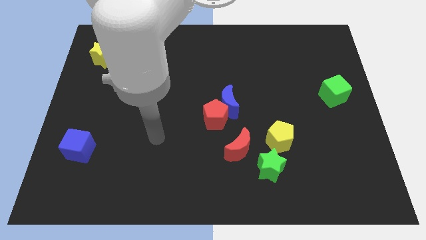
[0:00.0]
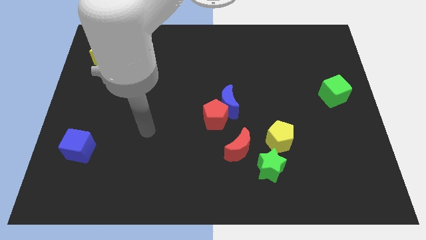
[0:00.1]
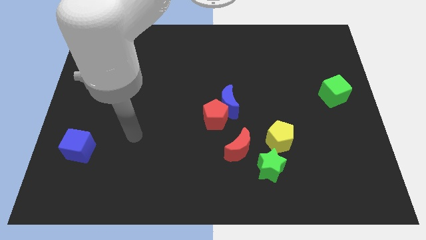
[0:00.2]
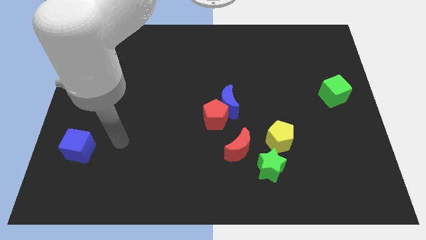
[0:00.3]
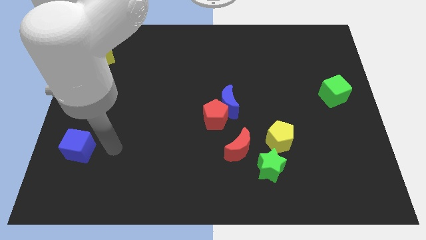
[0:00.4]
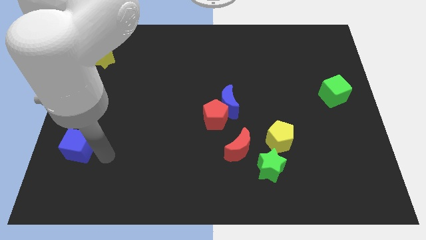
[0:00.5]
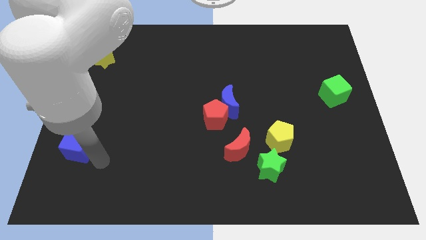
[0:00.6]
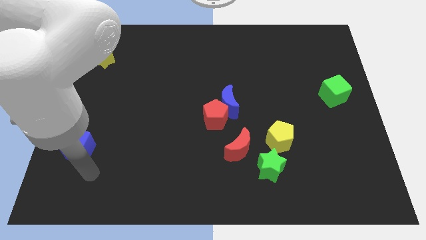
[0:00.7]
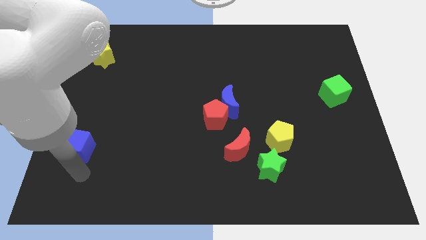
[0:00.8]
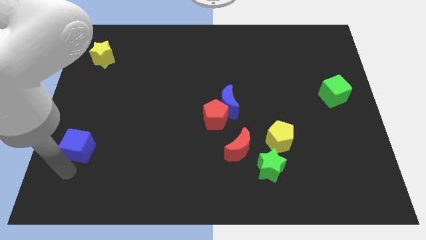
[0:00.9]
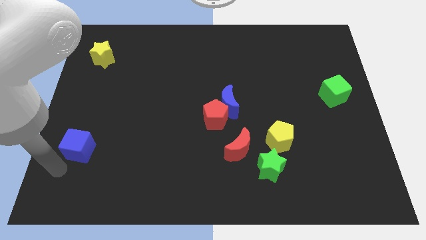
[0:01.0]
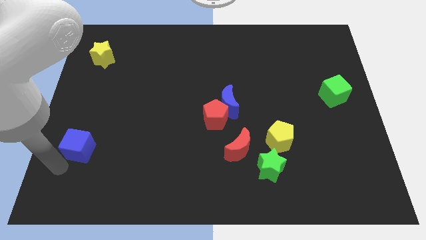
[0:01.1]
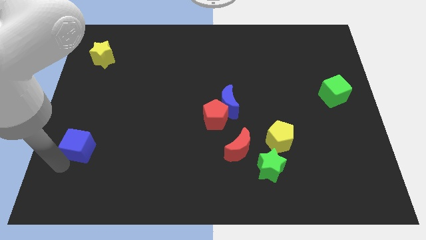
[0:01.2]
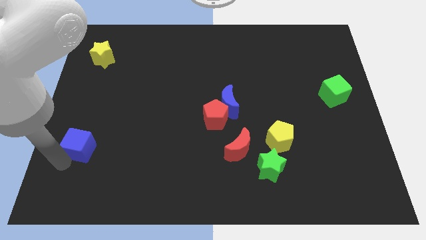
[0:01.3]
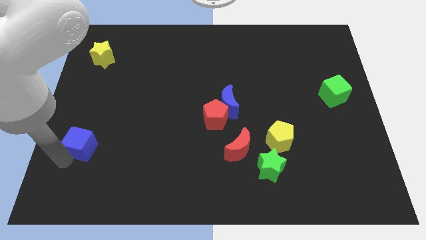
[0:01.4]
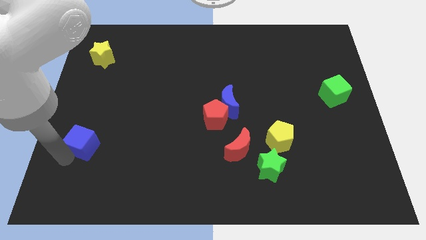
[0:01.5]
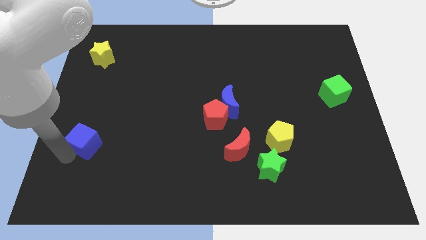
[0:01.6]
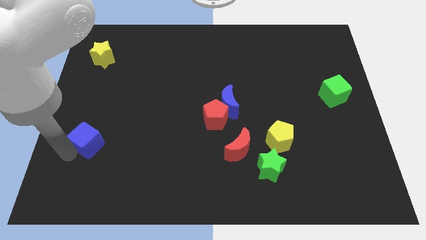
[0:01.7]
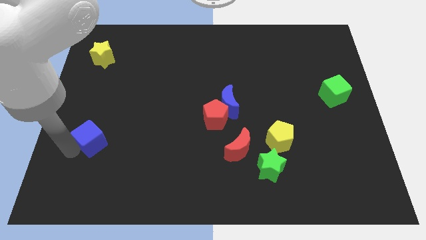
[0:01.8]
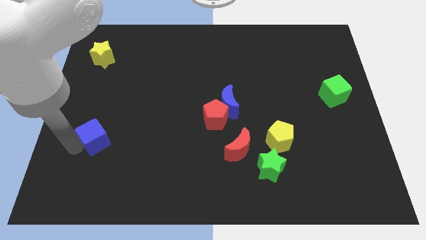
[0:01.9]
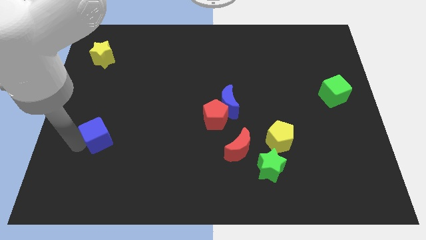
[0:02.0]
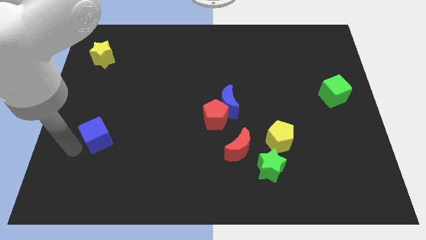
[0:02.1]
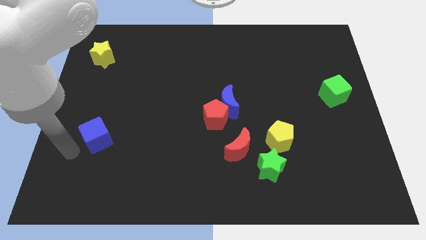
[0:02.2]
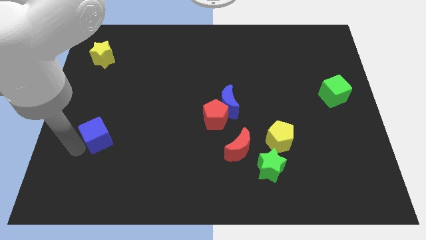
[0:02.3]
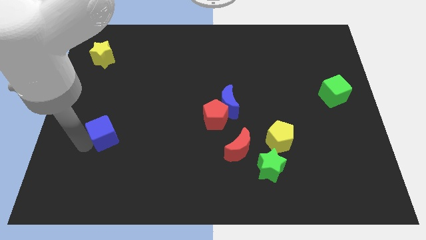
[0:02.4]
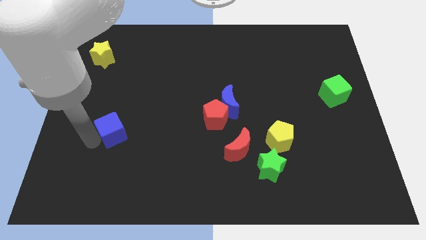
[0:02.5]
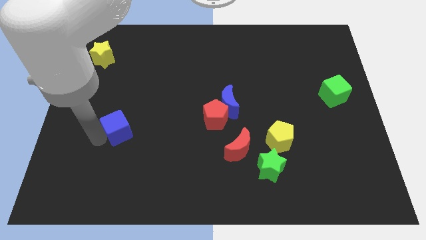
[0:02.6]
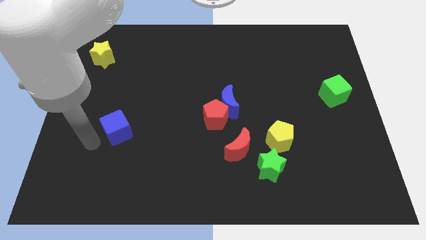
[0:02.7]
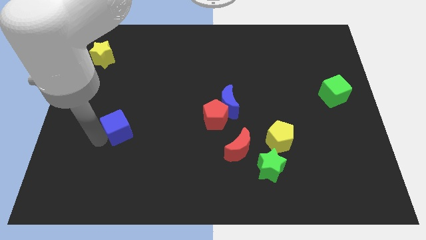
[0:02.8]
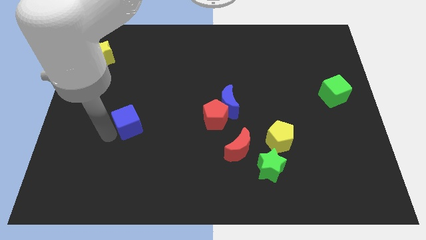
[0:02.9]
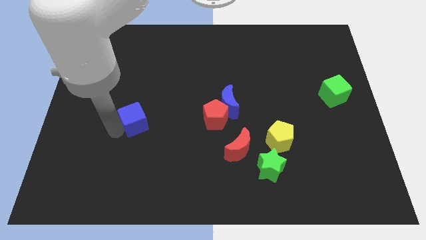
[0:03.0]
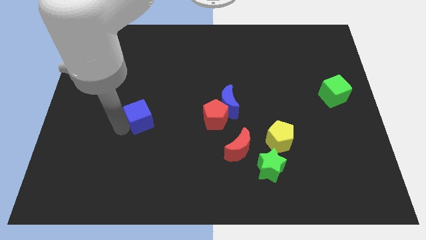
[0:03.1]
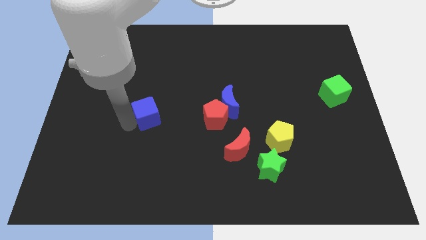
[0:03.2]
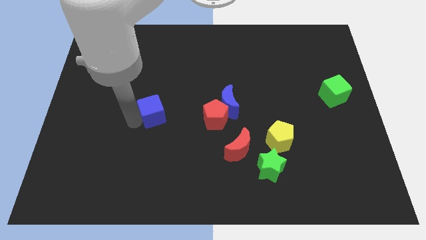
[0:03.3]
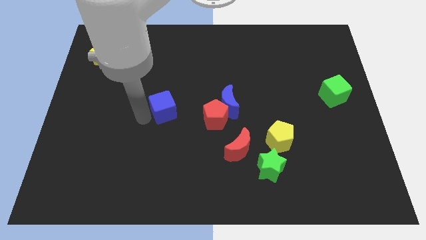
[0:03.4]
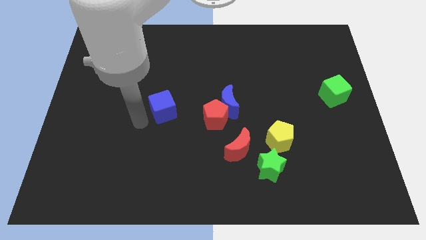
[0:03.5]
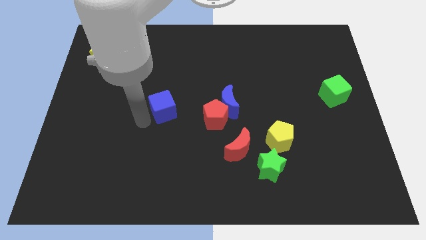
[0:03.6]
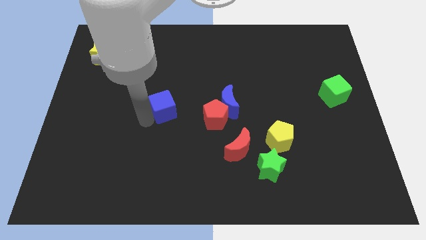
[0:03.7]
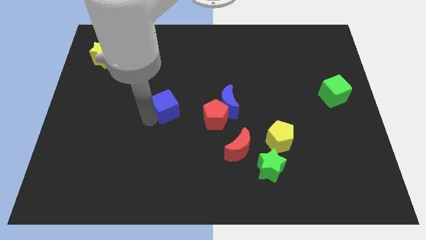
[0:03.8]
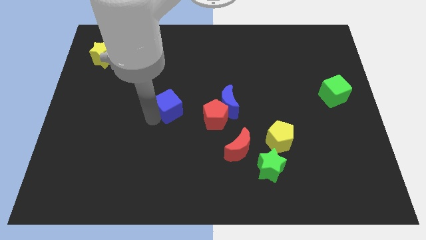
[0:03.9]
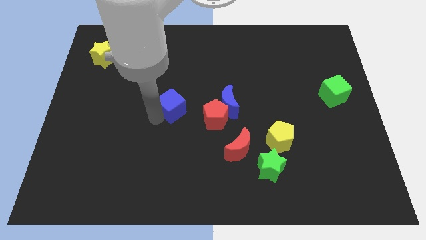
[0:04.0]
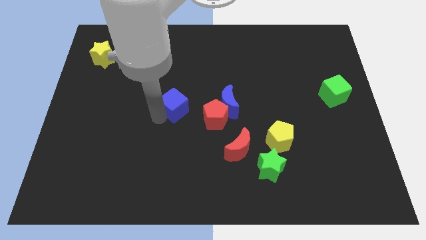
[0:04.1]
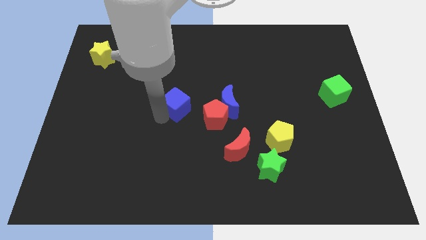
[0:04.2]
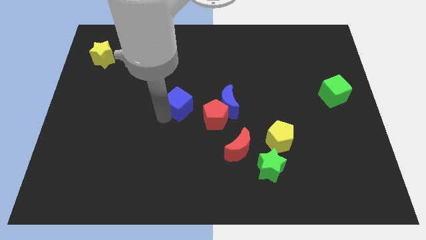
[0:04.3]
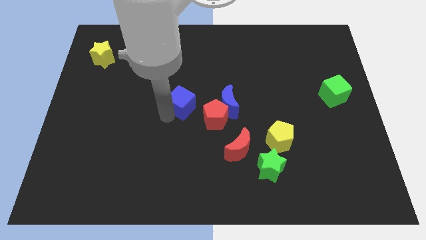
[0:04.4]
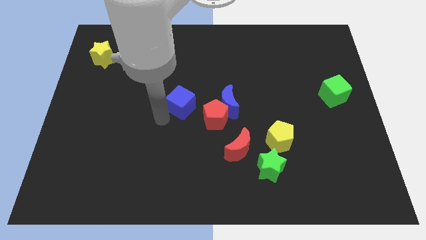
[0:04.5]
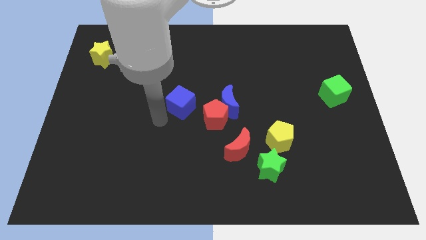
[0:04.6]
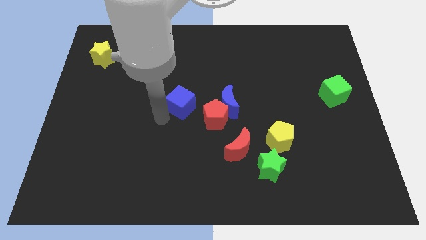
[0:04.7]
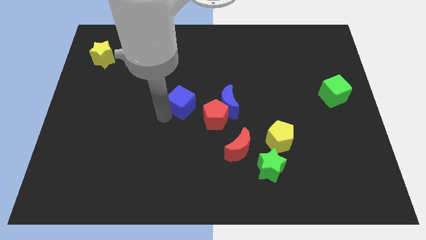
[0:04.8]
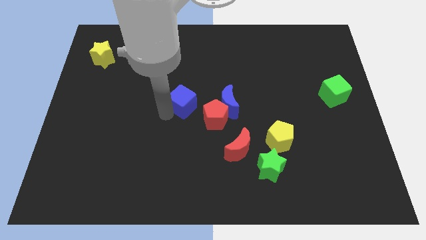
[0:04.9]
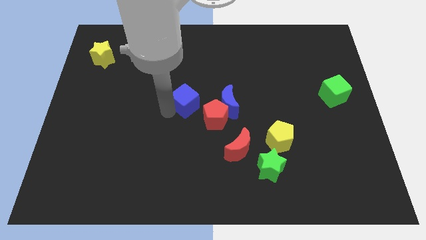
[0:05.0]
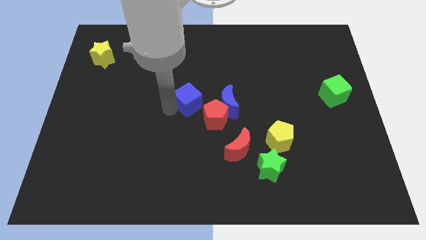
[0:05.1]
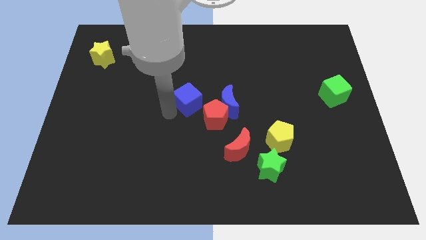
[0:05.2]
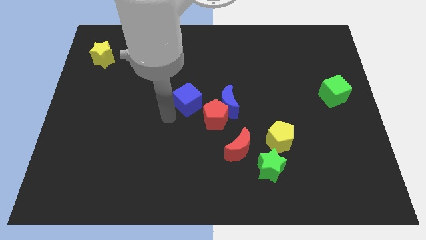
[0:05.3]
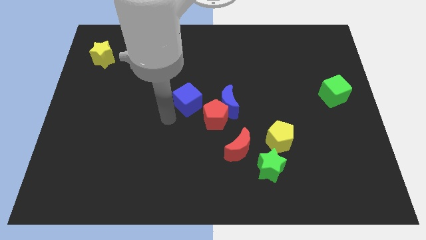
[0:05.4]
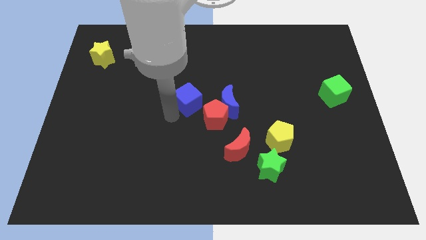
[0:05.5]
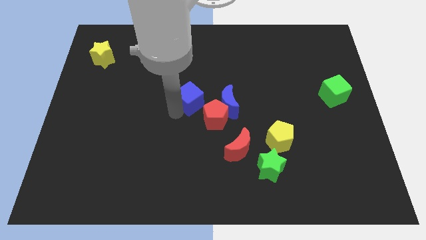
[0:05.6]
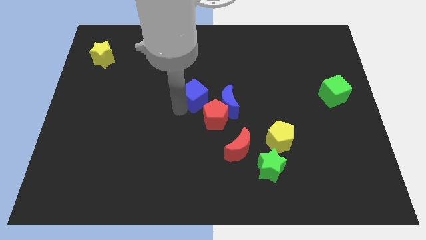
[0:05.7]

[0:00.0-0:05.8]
push the blue cube to the top side of the red pentagon

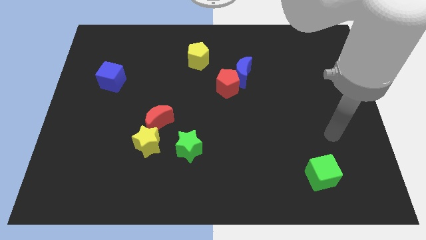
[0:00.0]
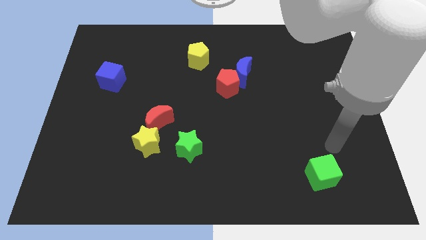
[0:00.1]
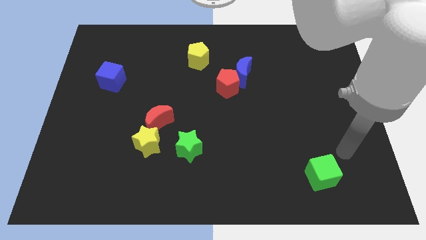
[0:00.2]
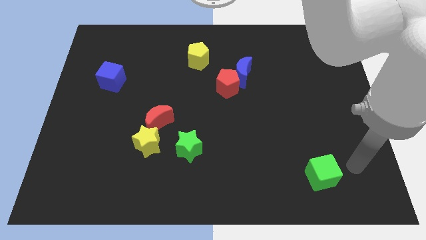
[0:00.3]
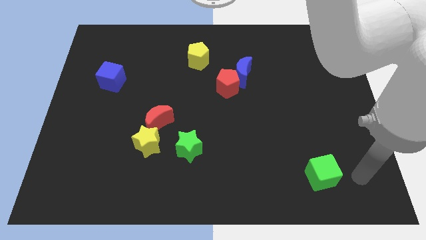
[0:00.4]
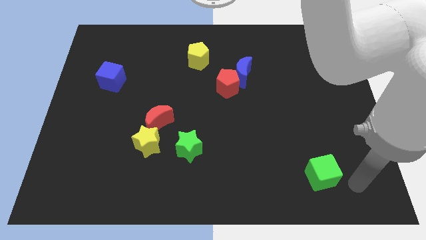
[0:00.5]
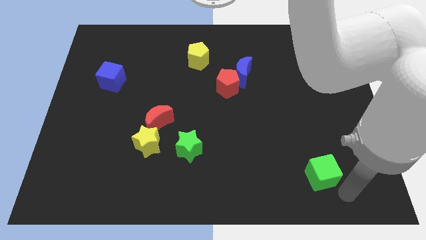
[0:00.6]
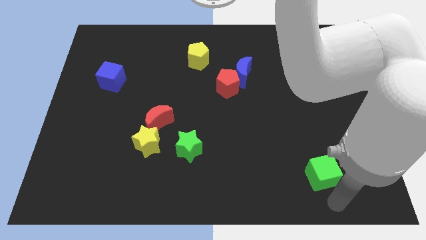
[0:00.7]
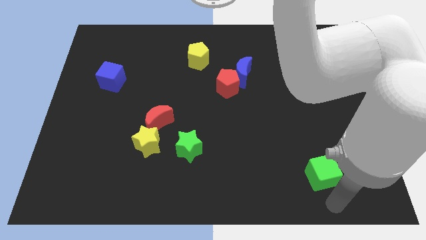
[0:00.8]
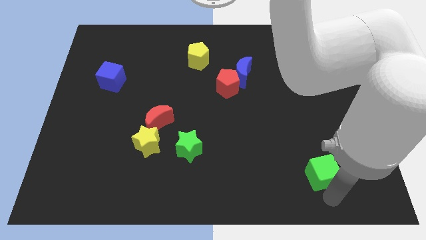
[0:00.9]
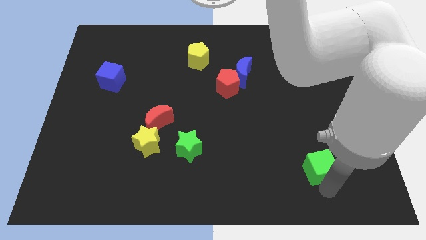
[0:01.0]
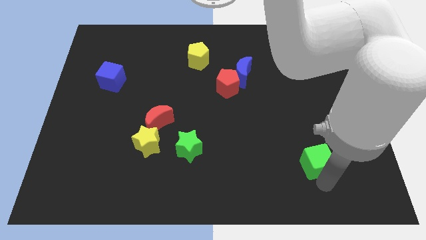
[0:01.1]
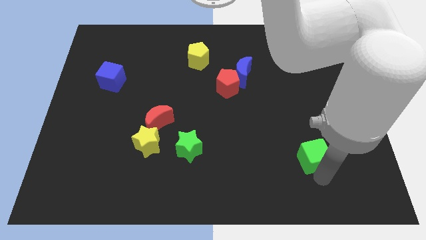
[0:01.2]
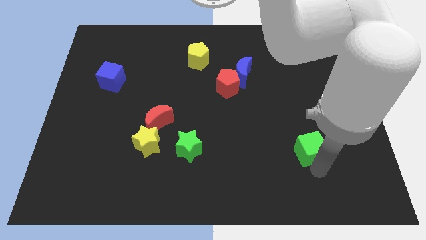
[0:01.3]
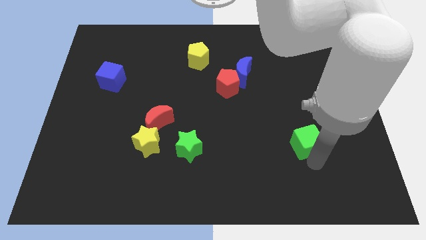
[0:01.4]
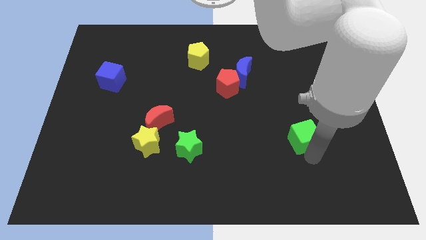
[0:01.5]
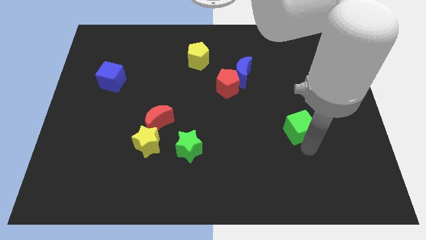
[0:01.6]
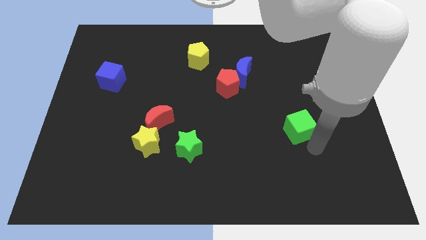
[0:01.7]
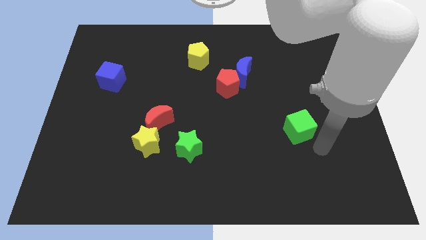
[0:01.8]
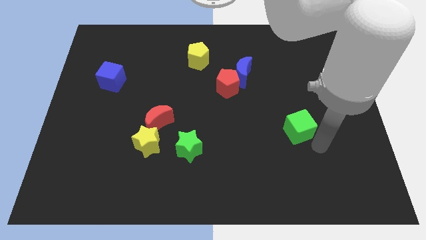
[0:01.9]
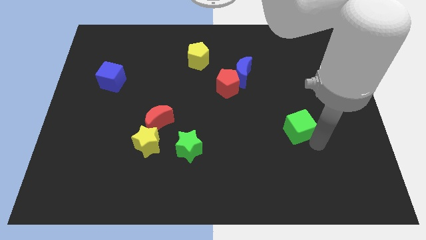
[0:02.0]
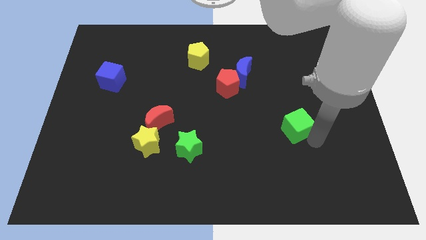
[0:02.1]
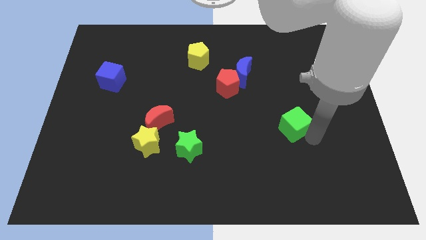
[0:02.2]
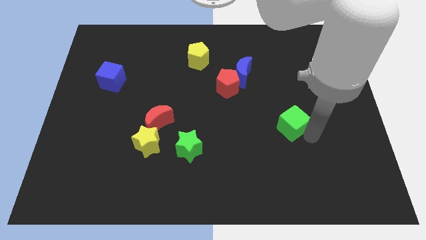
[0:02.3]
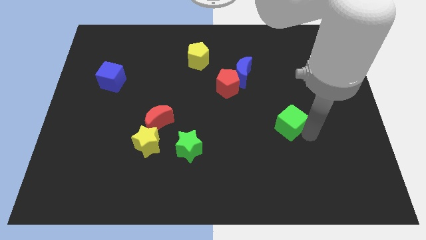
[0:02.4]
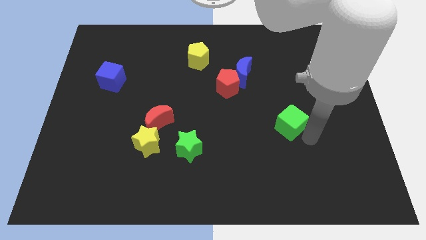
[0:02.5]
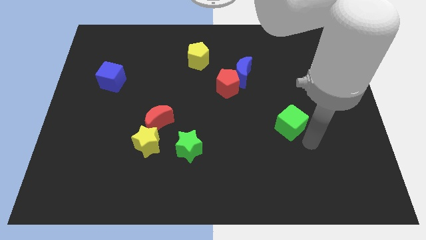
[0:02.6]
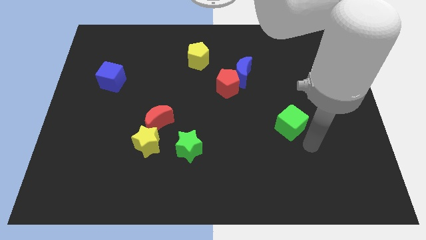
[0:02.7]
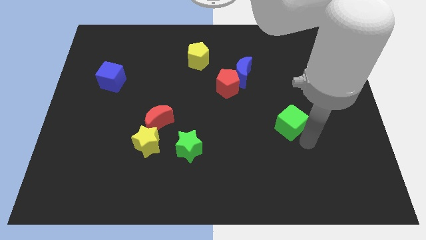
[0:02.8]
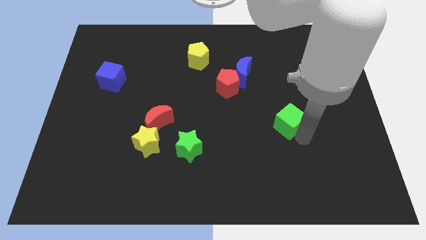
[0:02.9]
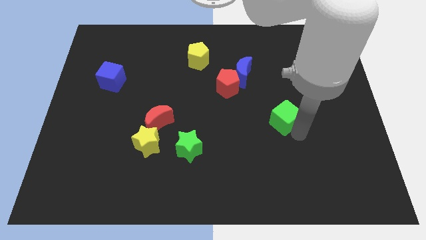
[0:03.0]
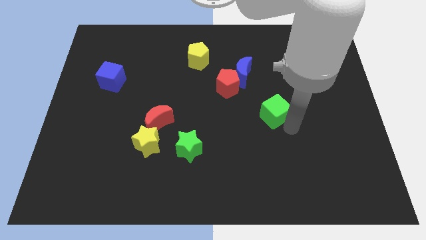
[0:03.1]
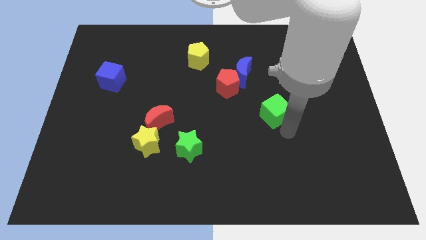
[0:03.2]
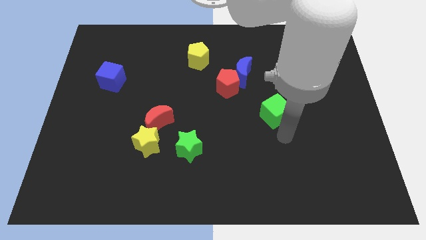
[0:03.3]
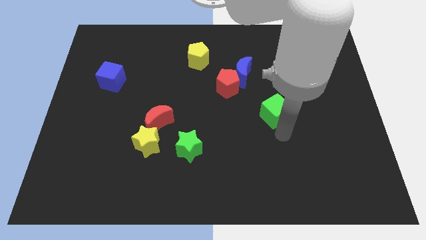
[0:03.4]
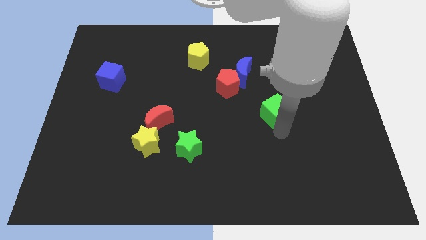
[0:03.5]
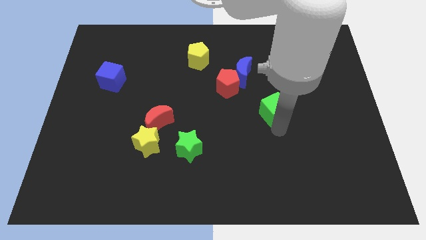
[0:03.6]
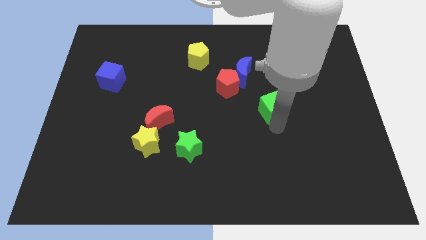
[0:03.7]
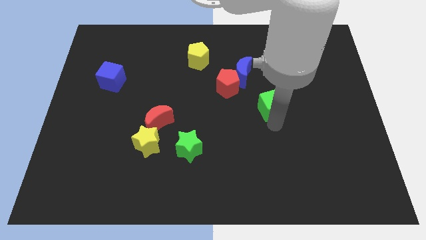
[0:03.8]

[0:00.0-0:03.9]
put the green cube diagonally down and to the right of the blue moon
